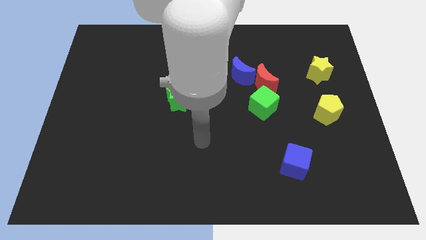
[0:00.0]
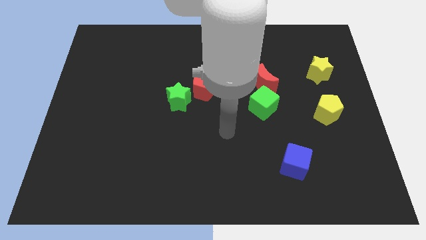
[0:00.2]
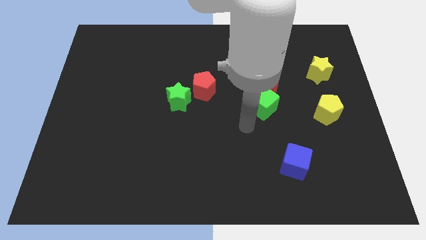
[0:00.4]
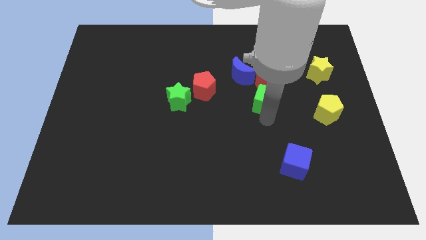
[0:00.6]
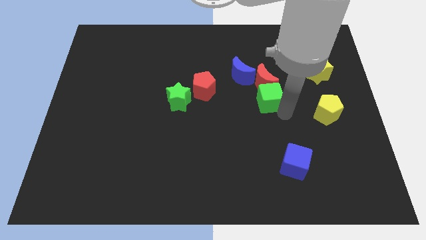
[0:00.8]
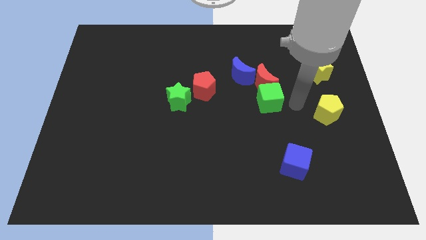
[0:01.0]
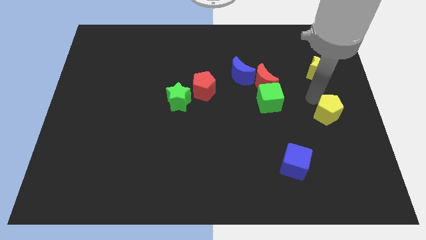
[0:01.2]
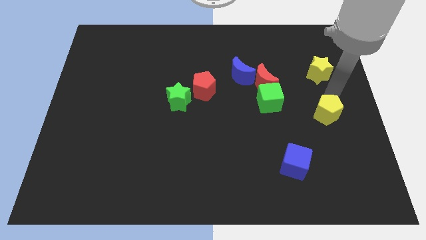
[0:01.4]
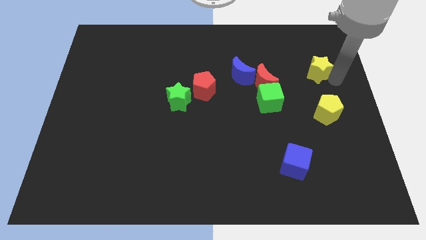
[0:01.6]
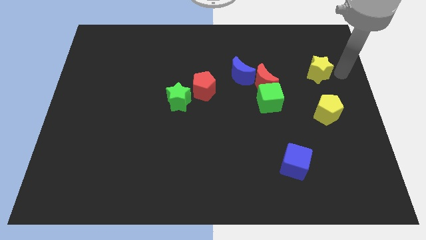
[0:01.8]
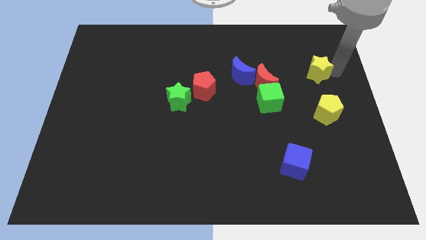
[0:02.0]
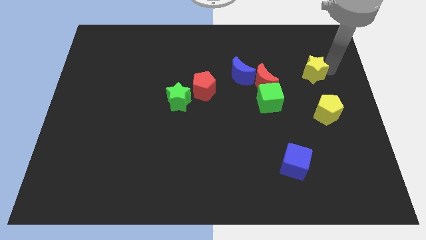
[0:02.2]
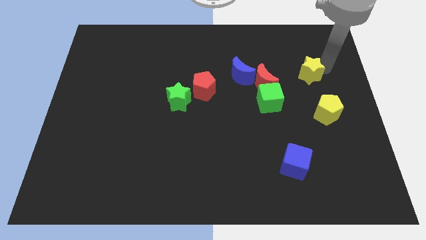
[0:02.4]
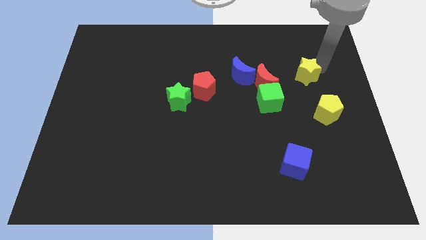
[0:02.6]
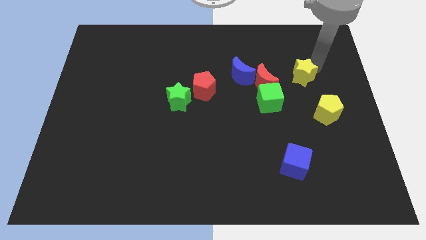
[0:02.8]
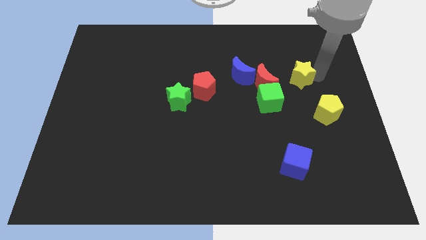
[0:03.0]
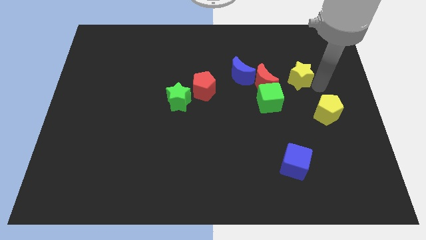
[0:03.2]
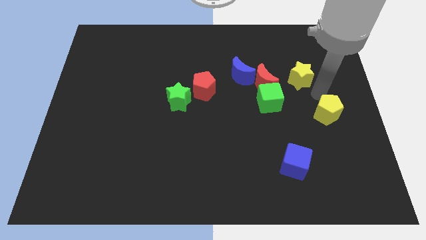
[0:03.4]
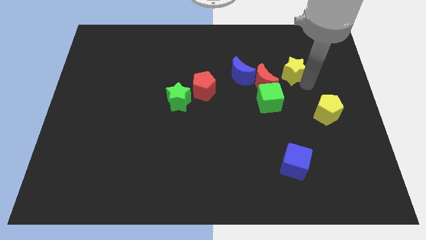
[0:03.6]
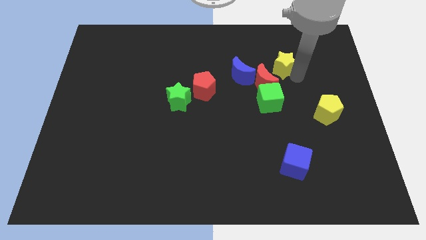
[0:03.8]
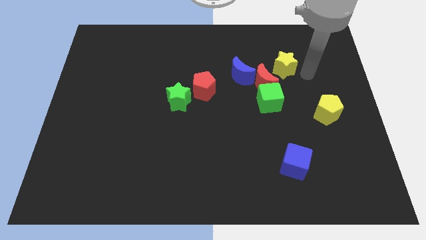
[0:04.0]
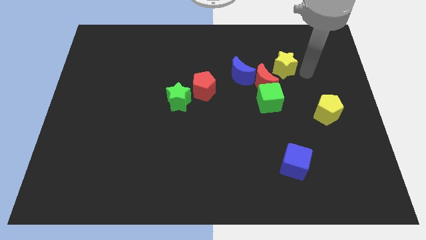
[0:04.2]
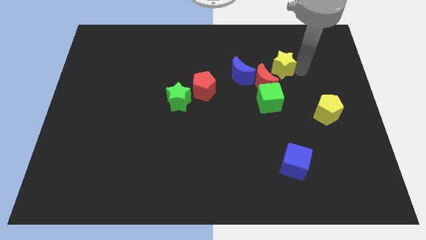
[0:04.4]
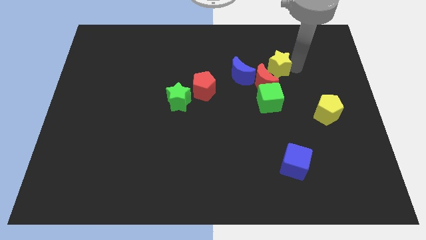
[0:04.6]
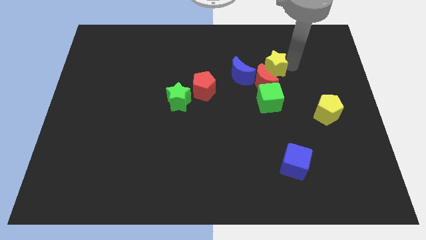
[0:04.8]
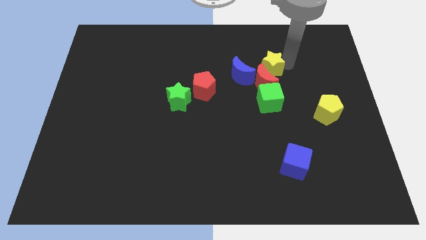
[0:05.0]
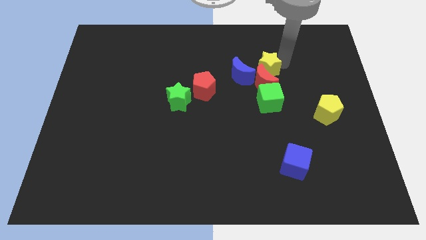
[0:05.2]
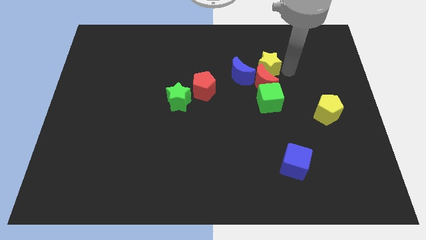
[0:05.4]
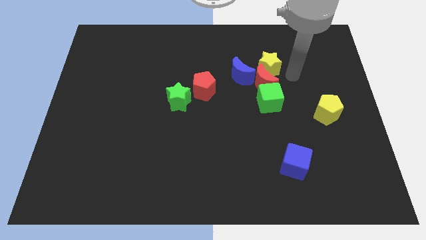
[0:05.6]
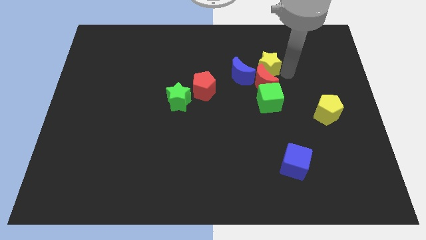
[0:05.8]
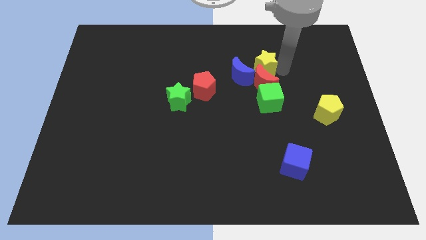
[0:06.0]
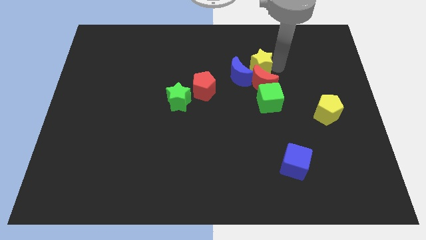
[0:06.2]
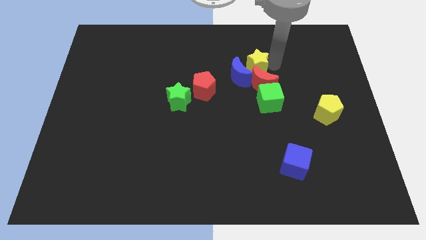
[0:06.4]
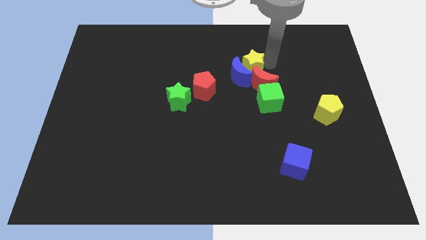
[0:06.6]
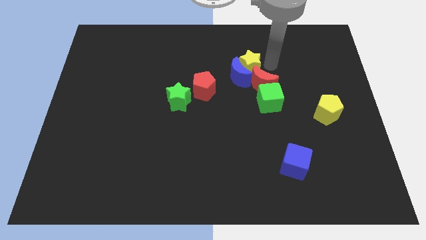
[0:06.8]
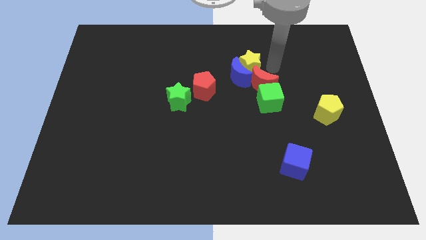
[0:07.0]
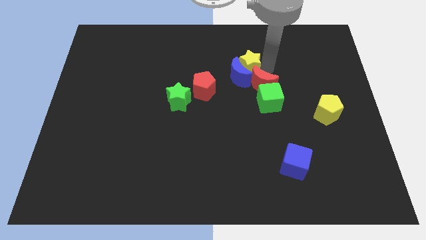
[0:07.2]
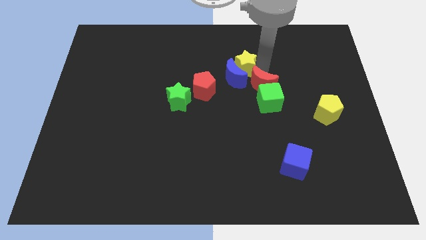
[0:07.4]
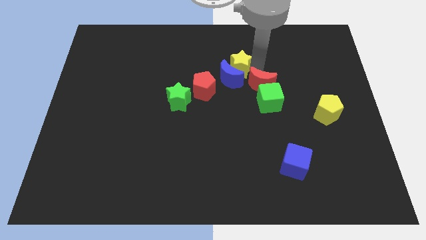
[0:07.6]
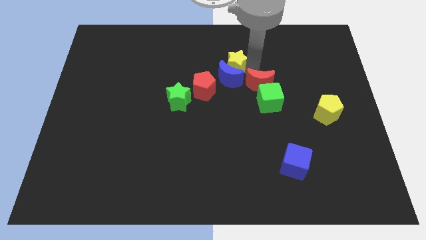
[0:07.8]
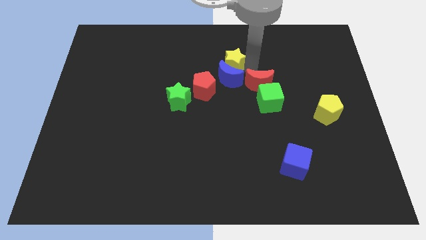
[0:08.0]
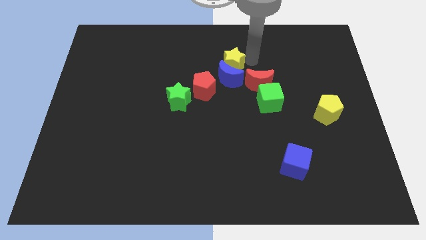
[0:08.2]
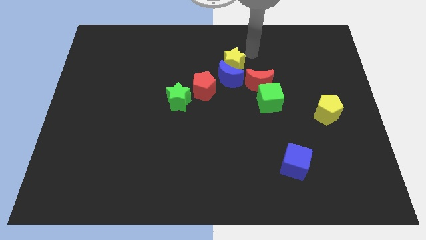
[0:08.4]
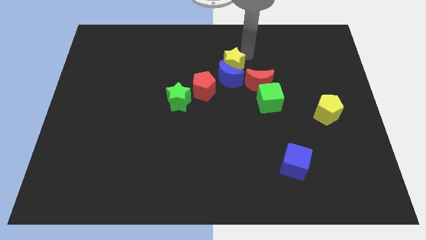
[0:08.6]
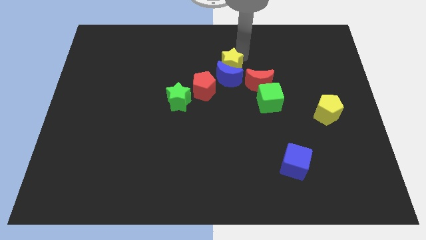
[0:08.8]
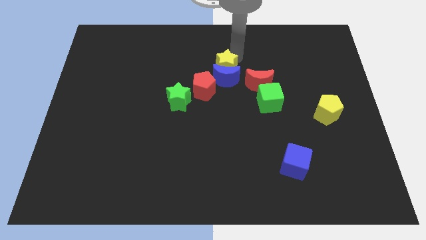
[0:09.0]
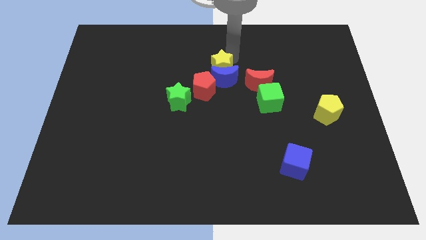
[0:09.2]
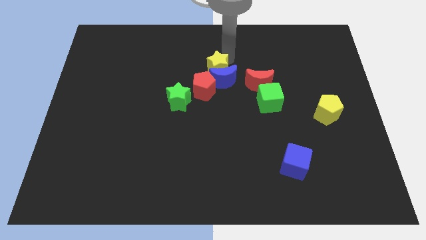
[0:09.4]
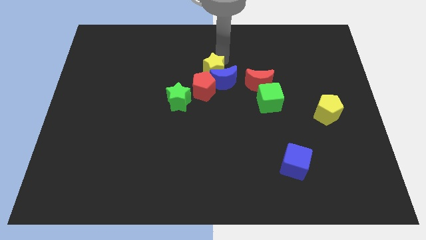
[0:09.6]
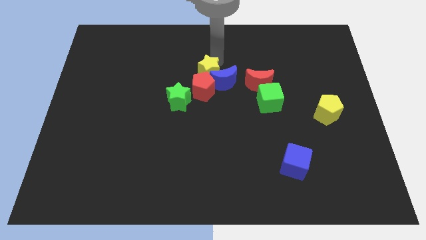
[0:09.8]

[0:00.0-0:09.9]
slide the yellow star to the red pentagon

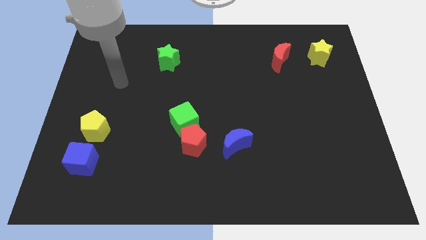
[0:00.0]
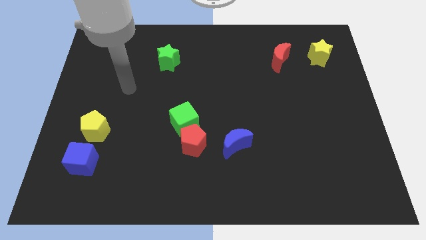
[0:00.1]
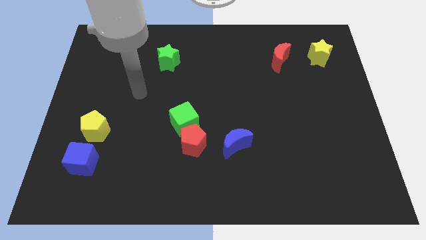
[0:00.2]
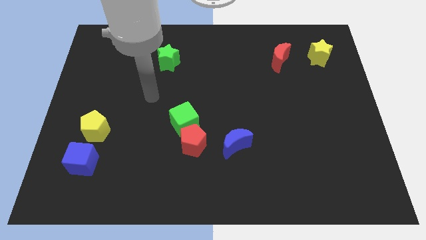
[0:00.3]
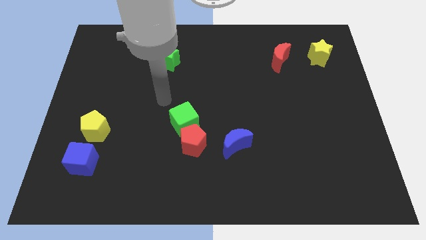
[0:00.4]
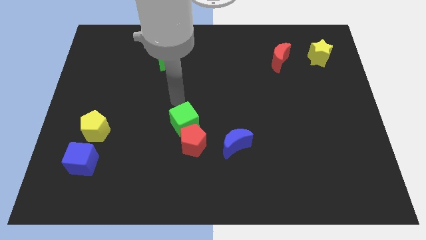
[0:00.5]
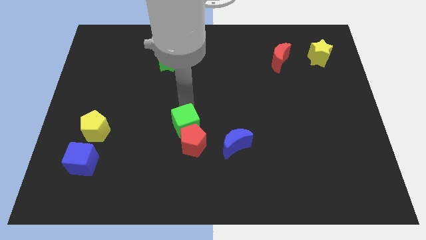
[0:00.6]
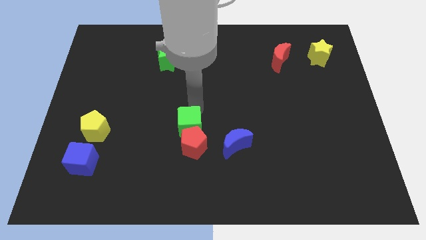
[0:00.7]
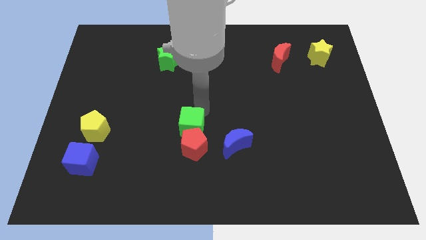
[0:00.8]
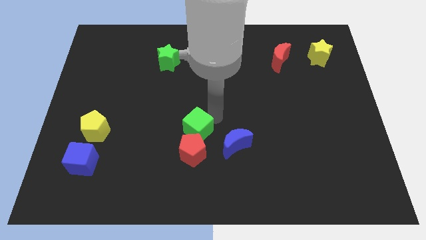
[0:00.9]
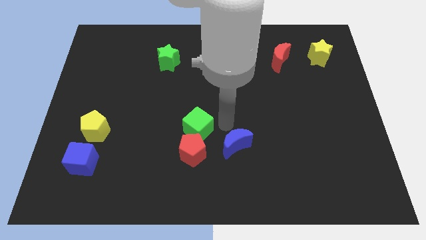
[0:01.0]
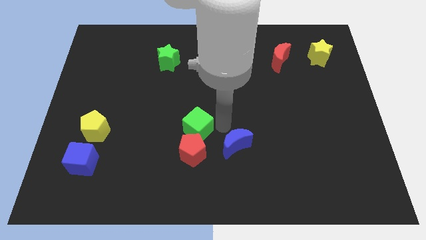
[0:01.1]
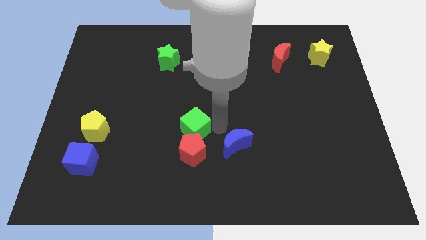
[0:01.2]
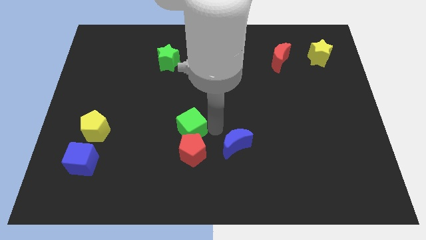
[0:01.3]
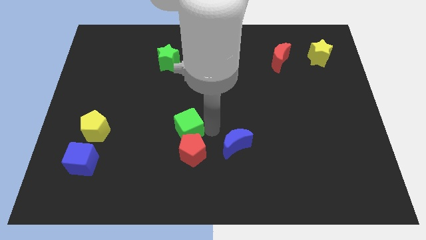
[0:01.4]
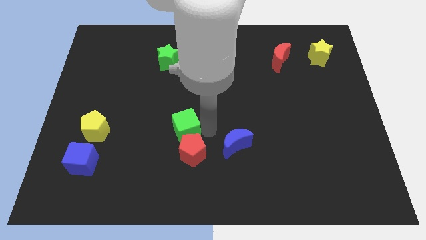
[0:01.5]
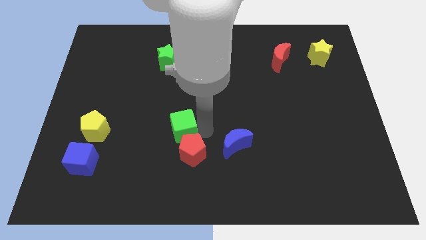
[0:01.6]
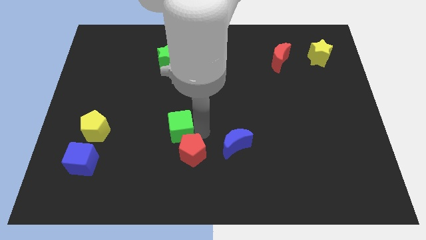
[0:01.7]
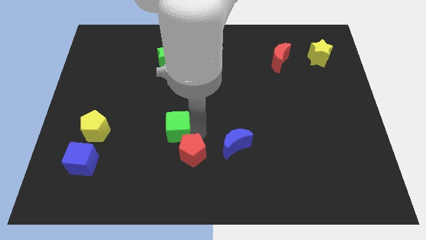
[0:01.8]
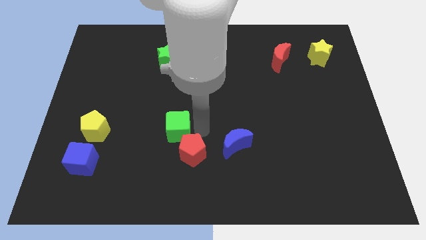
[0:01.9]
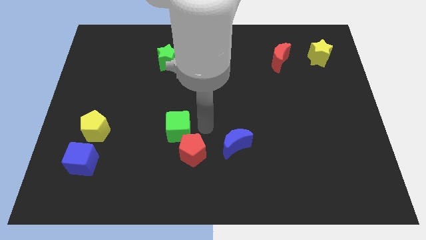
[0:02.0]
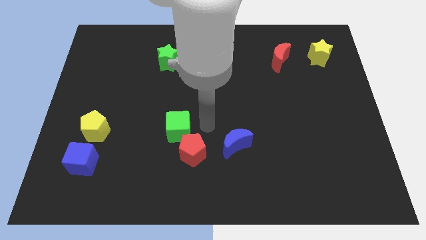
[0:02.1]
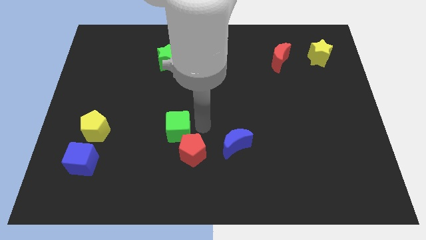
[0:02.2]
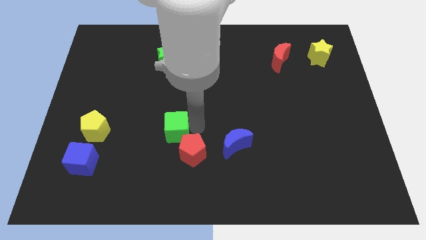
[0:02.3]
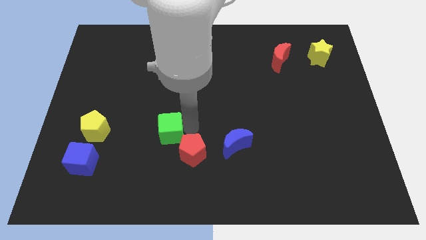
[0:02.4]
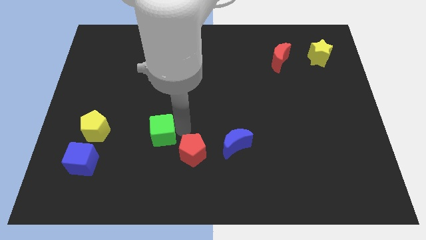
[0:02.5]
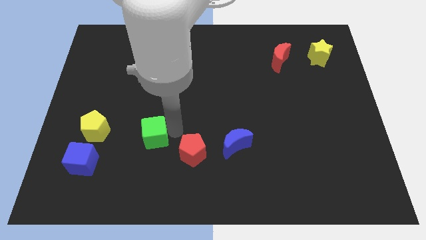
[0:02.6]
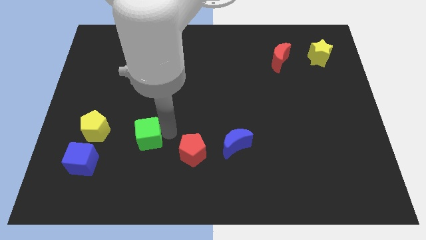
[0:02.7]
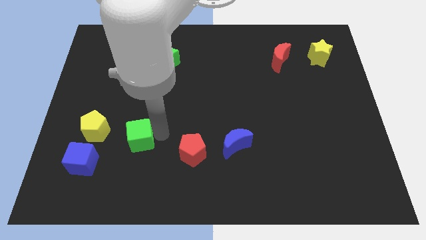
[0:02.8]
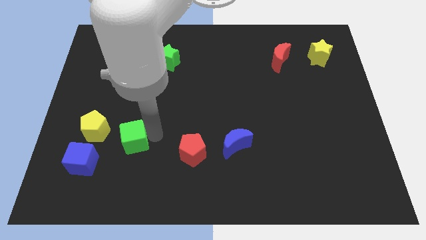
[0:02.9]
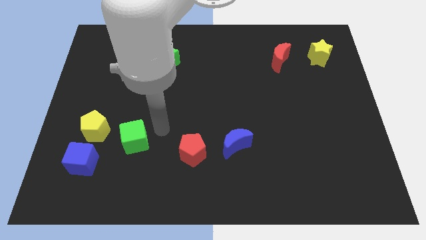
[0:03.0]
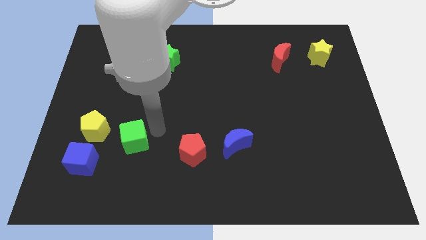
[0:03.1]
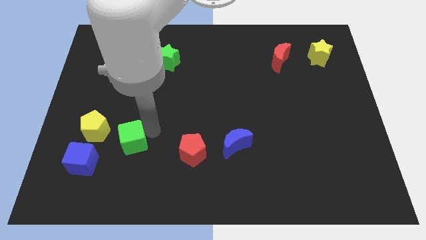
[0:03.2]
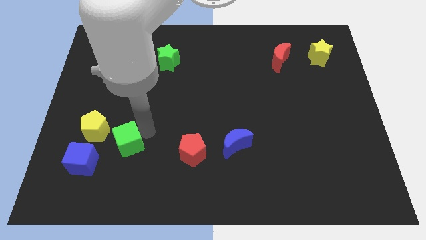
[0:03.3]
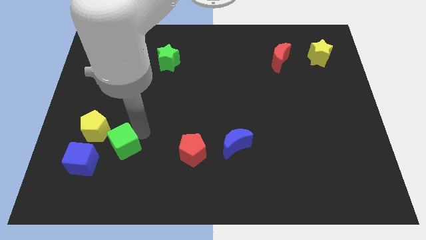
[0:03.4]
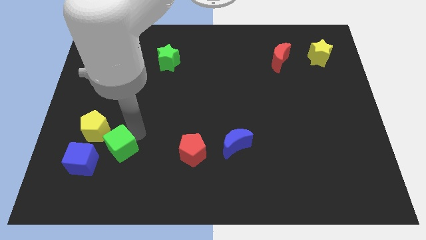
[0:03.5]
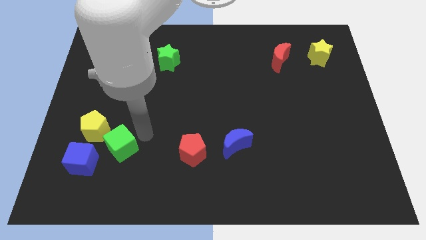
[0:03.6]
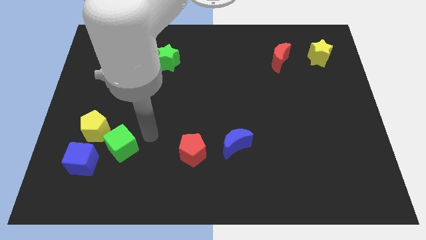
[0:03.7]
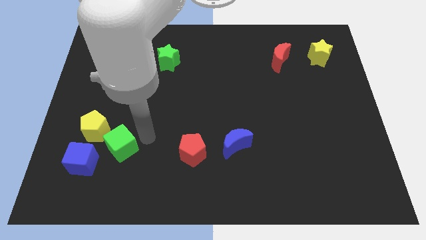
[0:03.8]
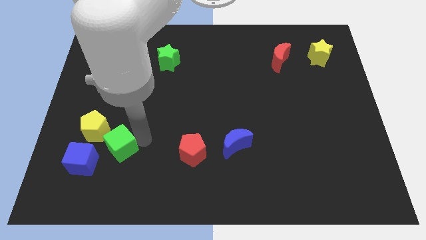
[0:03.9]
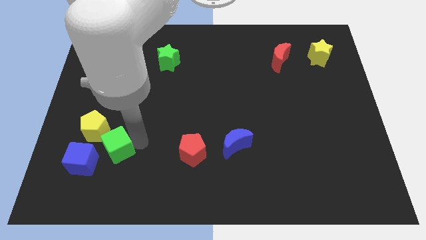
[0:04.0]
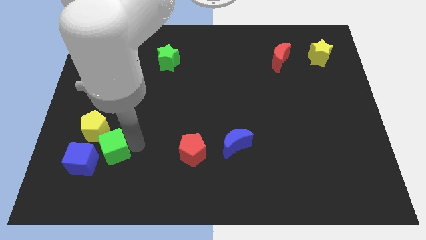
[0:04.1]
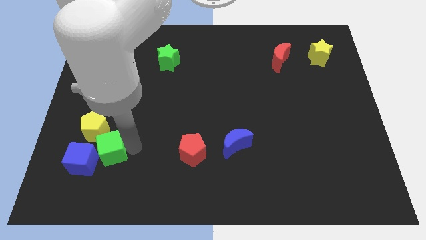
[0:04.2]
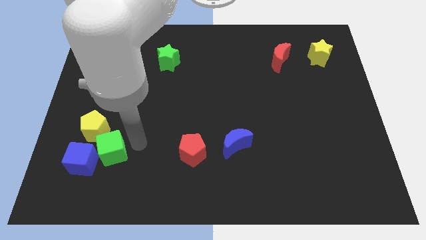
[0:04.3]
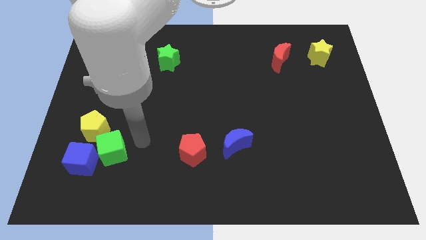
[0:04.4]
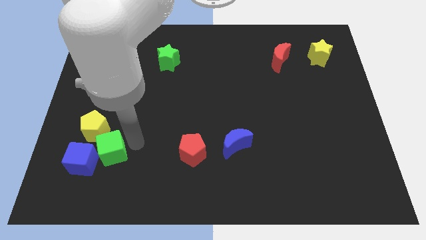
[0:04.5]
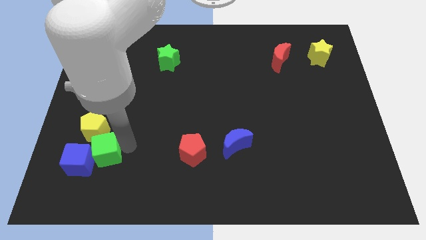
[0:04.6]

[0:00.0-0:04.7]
put the green cube next to the blue cube
